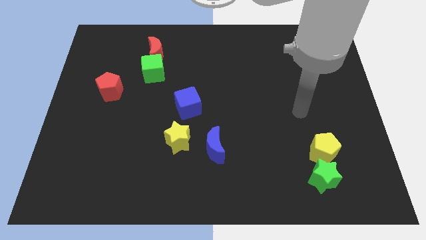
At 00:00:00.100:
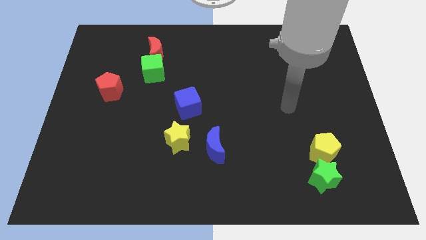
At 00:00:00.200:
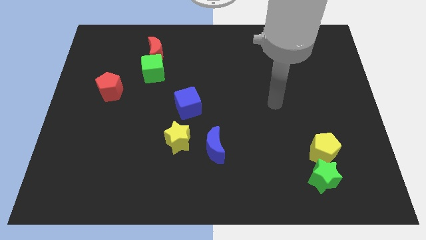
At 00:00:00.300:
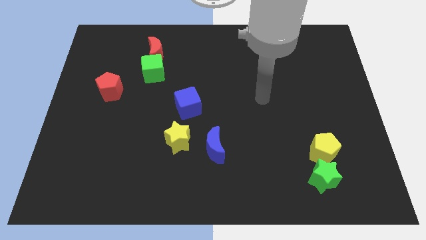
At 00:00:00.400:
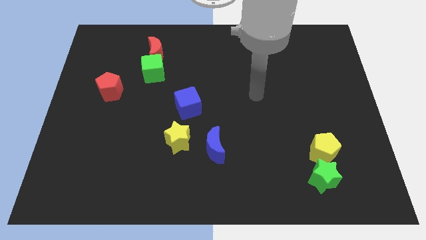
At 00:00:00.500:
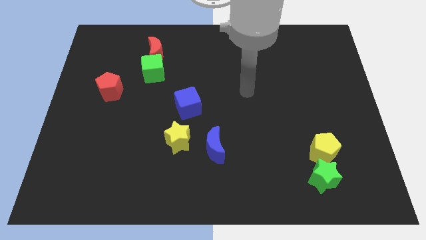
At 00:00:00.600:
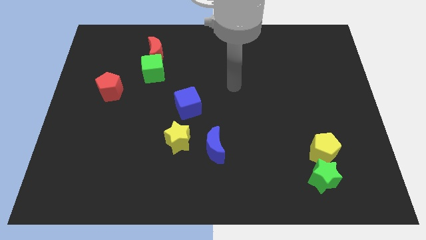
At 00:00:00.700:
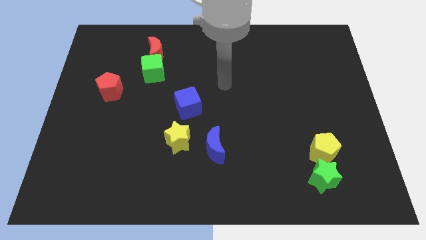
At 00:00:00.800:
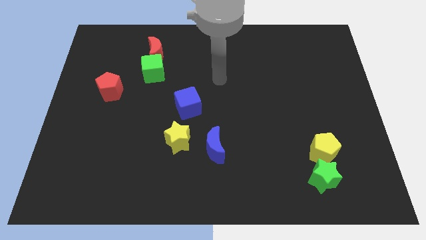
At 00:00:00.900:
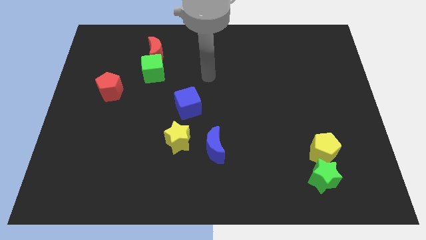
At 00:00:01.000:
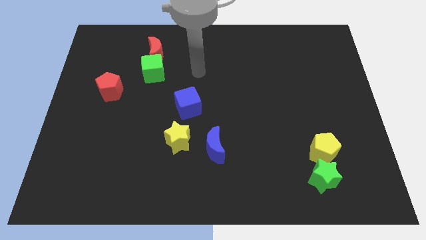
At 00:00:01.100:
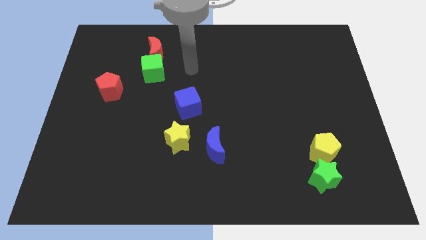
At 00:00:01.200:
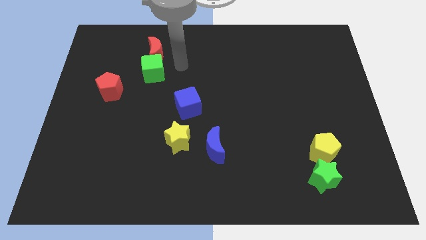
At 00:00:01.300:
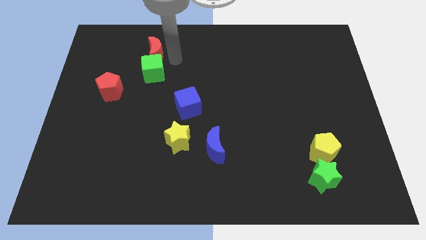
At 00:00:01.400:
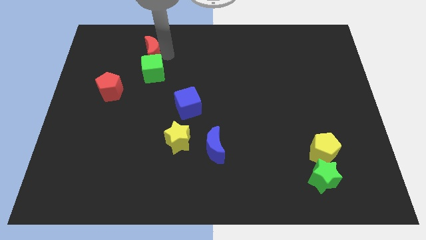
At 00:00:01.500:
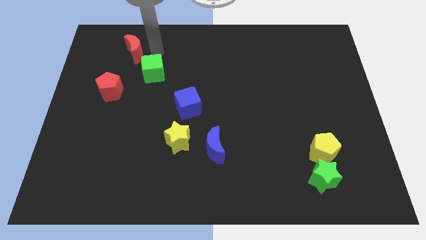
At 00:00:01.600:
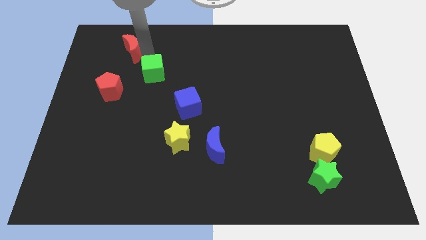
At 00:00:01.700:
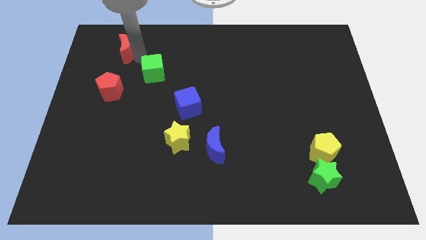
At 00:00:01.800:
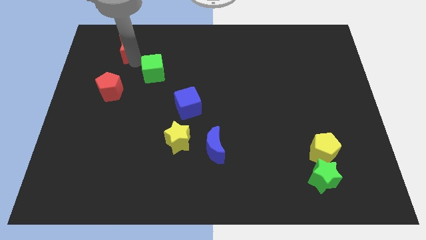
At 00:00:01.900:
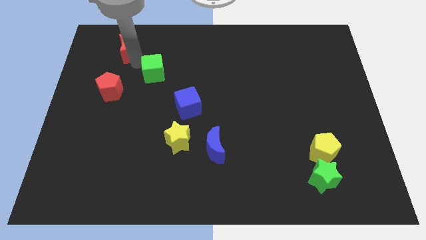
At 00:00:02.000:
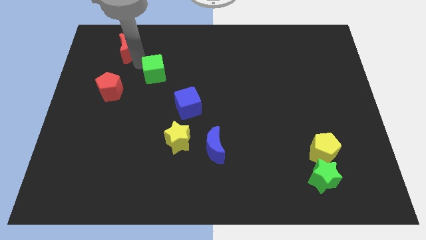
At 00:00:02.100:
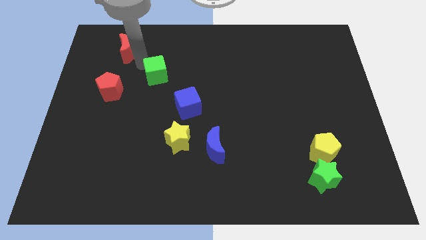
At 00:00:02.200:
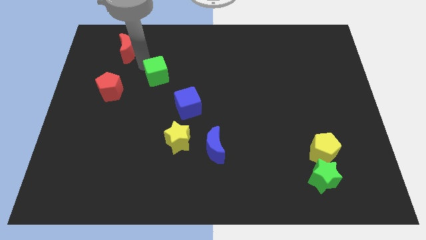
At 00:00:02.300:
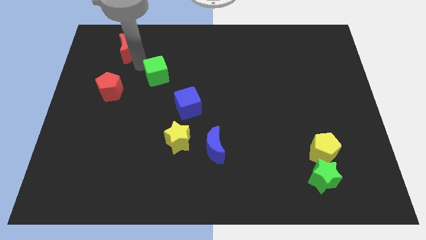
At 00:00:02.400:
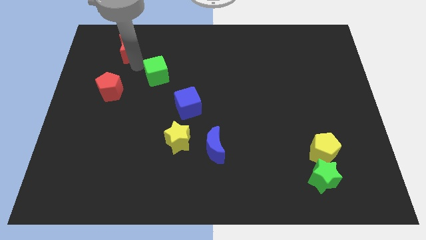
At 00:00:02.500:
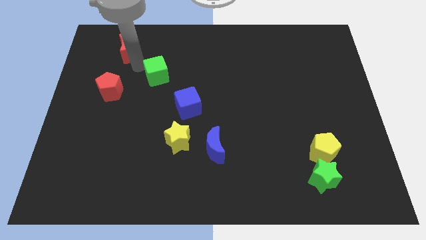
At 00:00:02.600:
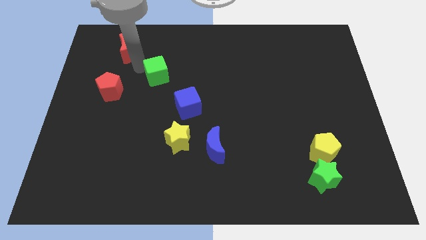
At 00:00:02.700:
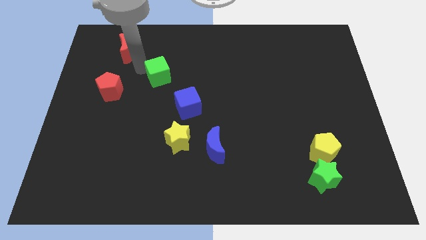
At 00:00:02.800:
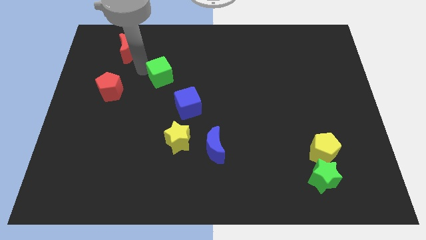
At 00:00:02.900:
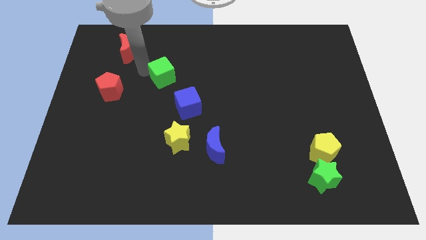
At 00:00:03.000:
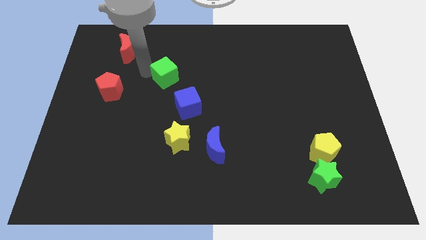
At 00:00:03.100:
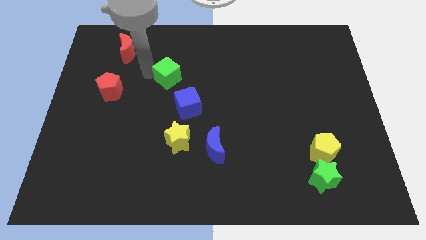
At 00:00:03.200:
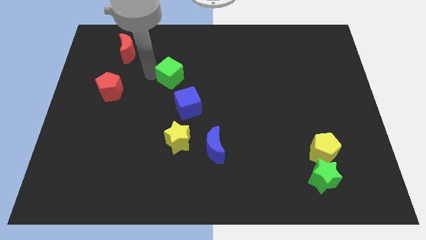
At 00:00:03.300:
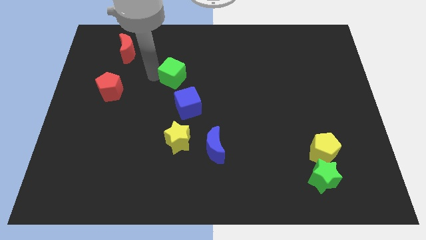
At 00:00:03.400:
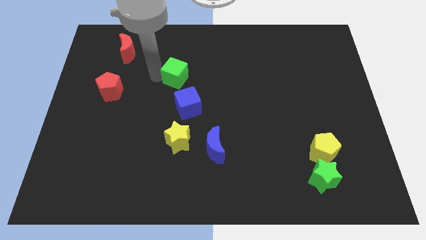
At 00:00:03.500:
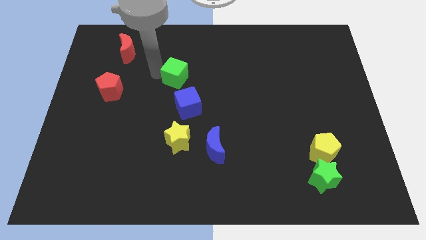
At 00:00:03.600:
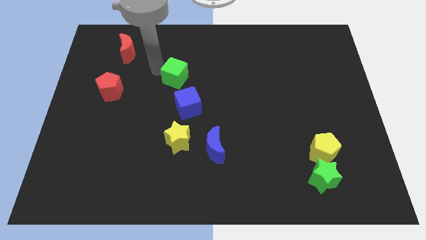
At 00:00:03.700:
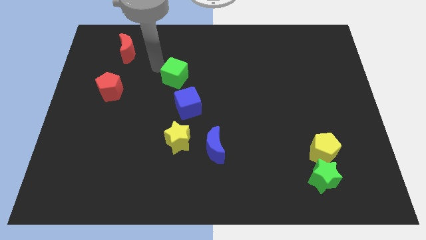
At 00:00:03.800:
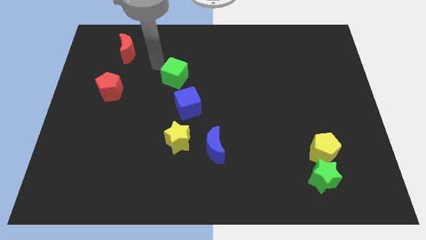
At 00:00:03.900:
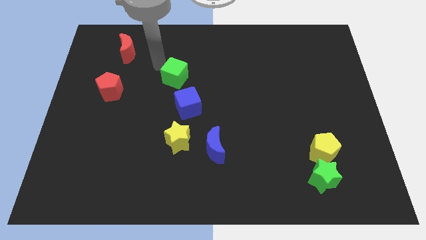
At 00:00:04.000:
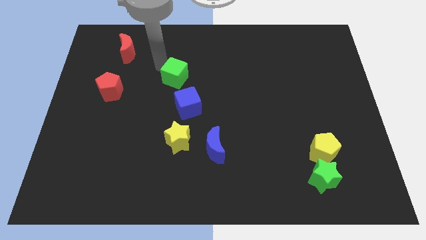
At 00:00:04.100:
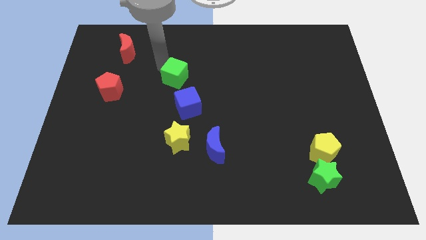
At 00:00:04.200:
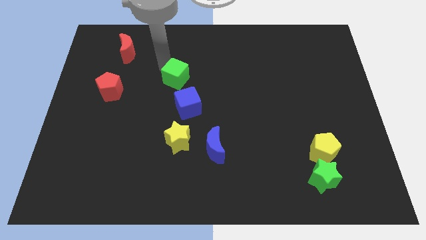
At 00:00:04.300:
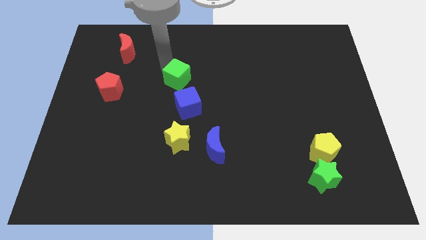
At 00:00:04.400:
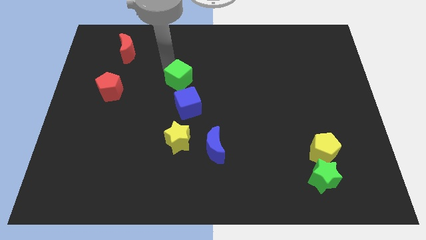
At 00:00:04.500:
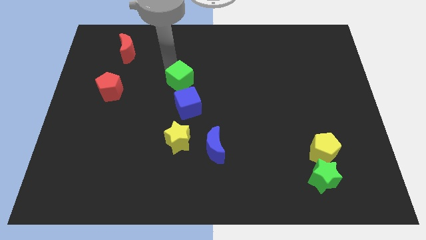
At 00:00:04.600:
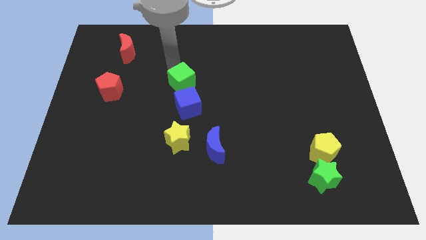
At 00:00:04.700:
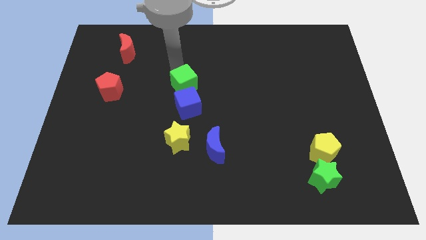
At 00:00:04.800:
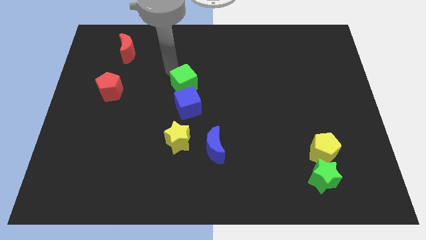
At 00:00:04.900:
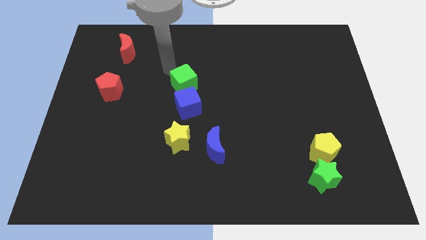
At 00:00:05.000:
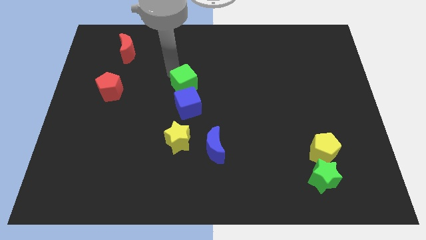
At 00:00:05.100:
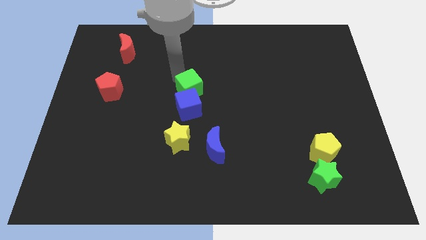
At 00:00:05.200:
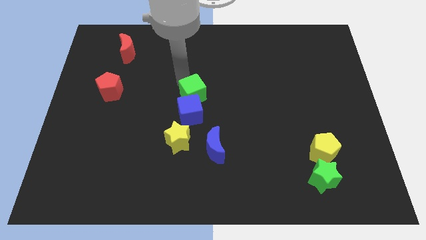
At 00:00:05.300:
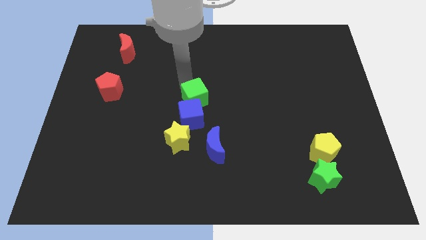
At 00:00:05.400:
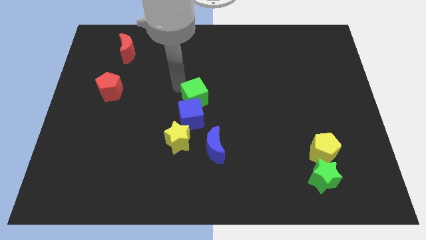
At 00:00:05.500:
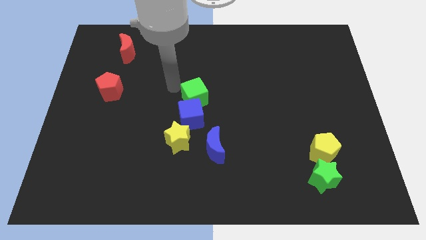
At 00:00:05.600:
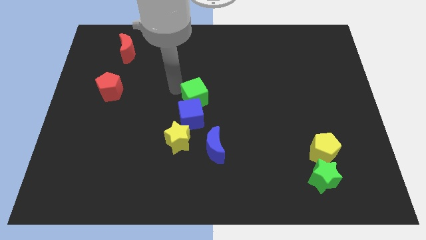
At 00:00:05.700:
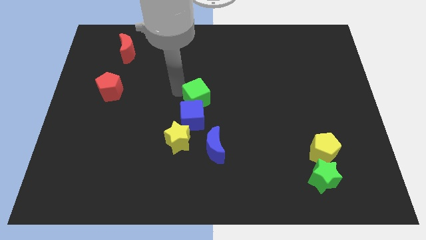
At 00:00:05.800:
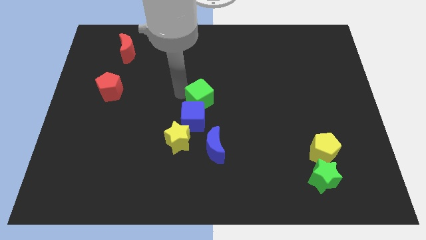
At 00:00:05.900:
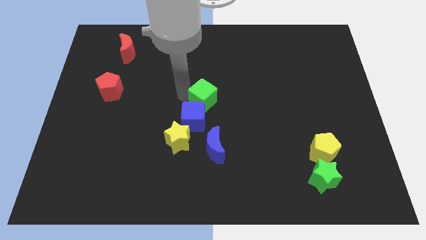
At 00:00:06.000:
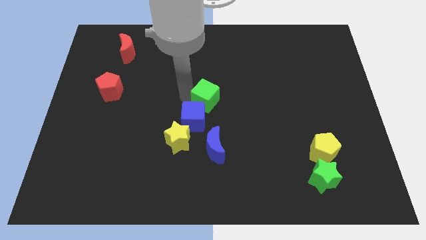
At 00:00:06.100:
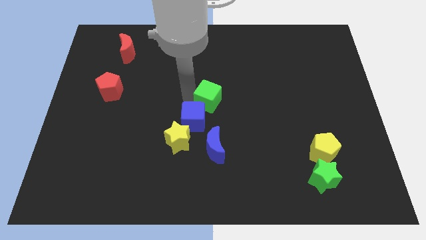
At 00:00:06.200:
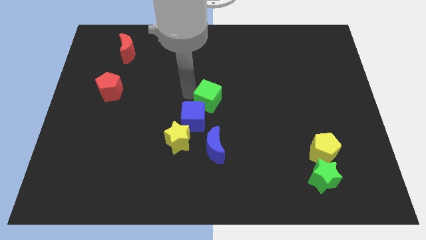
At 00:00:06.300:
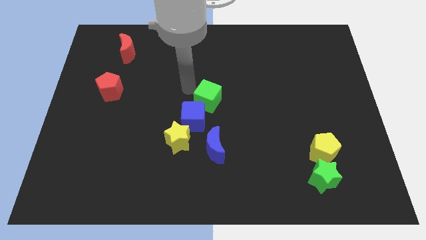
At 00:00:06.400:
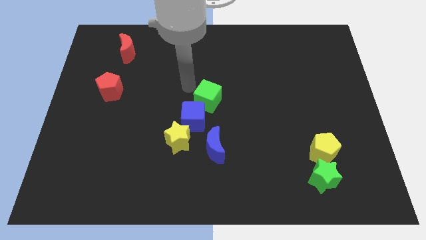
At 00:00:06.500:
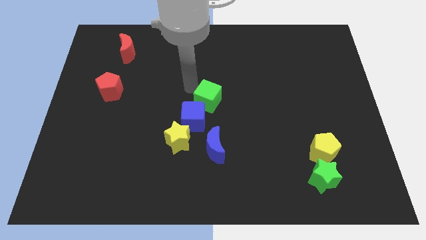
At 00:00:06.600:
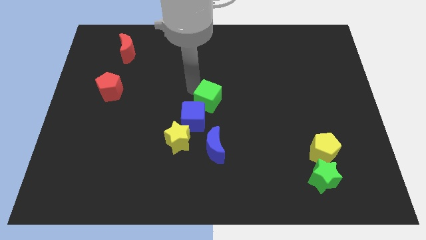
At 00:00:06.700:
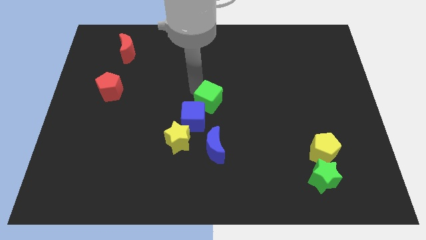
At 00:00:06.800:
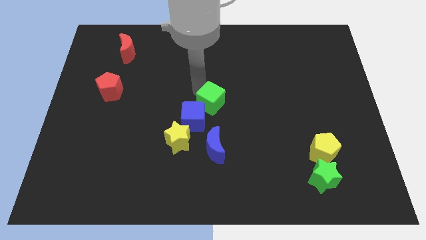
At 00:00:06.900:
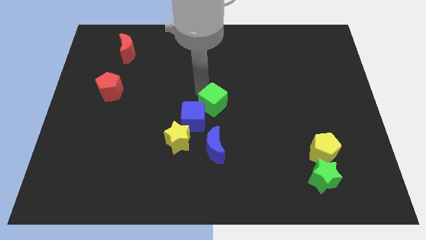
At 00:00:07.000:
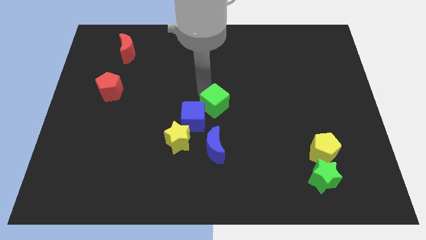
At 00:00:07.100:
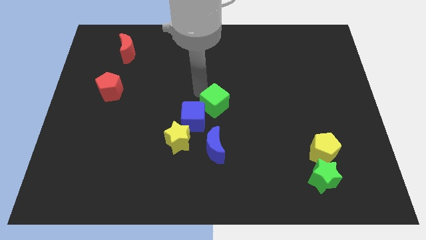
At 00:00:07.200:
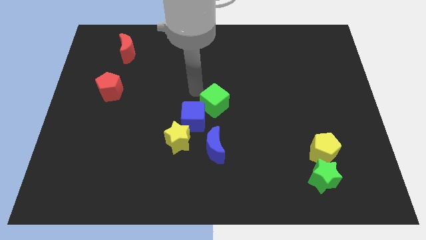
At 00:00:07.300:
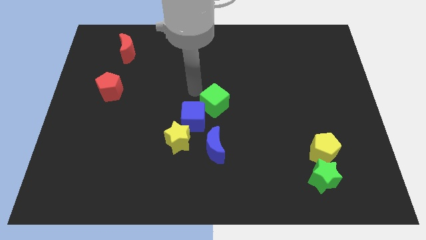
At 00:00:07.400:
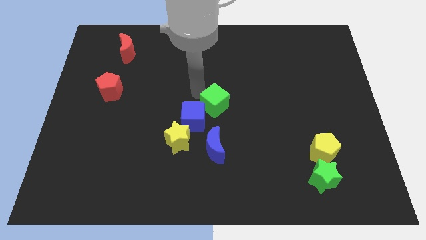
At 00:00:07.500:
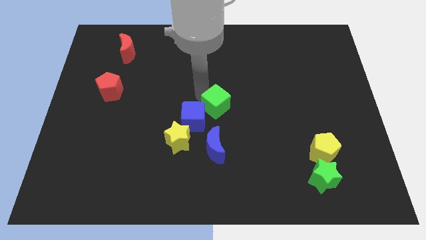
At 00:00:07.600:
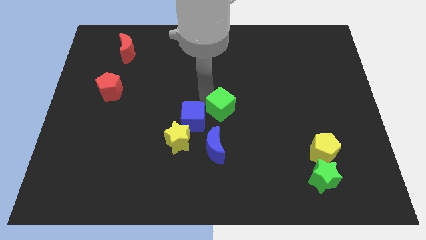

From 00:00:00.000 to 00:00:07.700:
move the green cube down and then right
